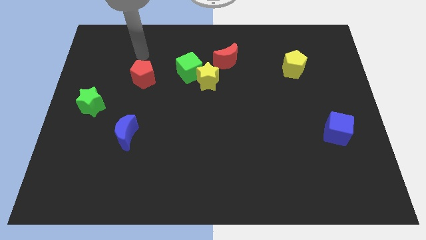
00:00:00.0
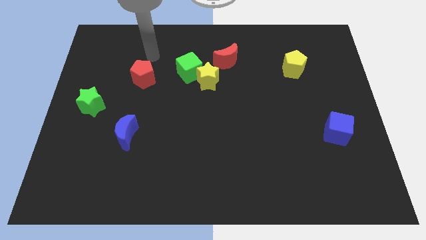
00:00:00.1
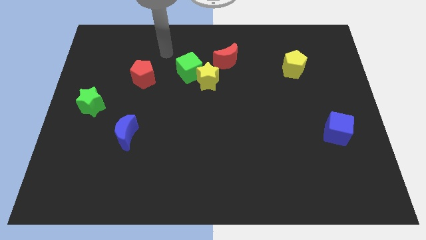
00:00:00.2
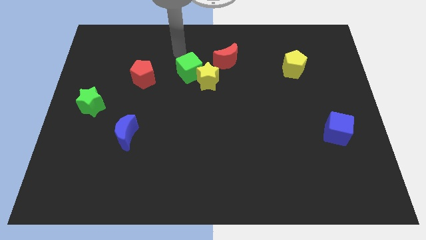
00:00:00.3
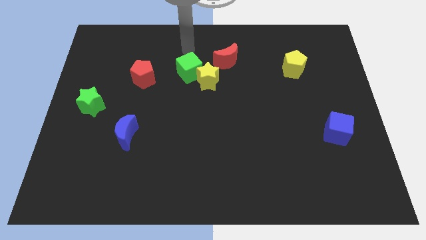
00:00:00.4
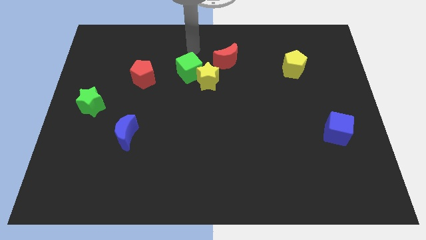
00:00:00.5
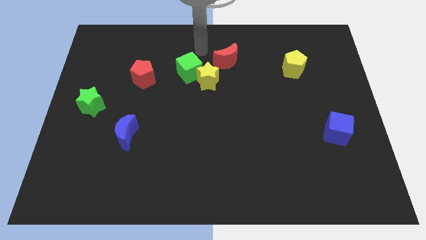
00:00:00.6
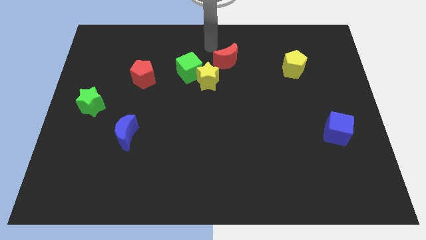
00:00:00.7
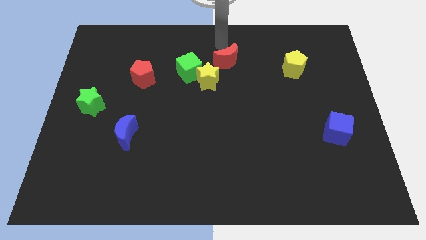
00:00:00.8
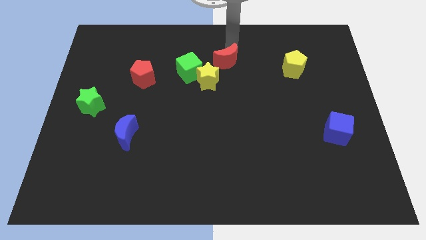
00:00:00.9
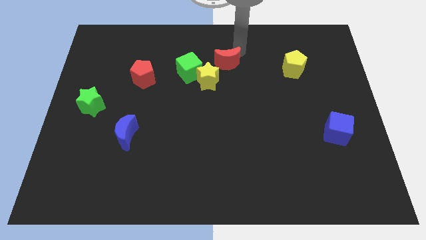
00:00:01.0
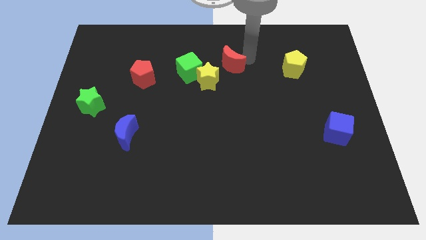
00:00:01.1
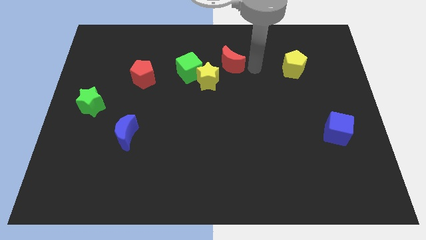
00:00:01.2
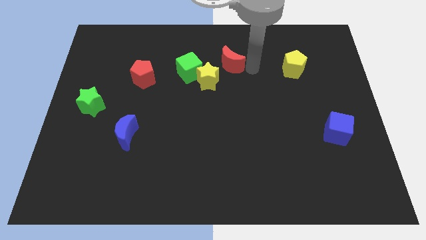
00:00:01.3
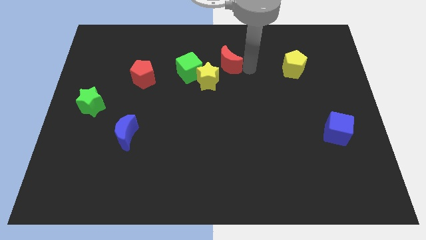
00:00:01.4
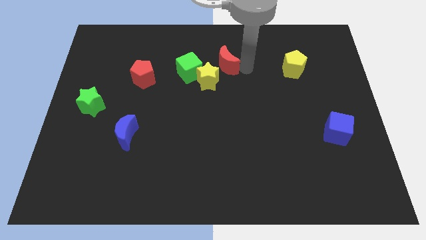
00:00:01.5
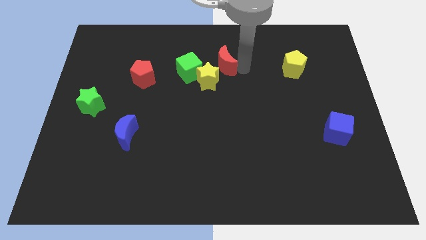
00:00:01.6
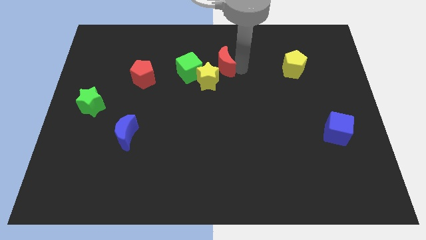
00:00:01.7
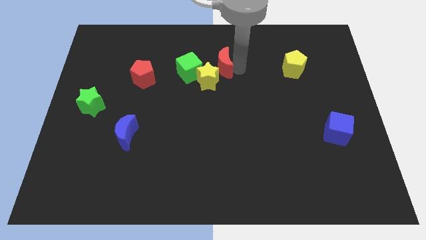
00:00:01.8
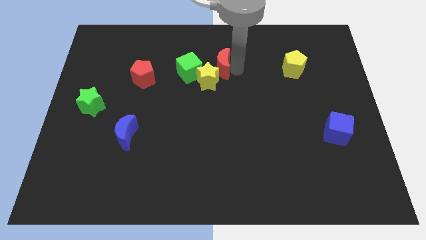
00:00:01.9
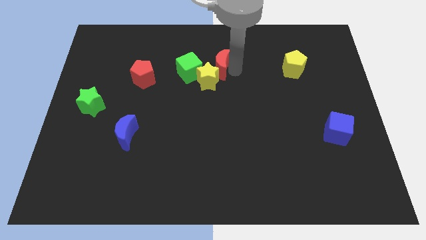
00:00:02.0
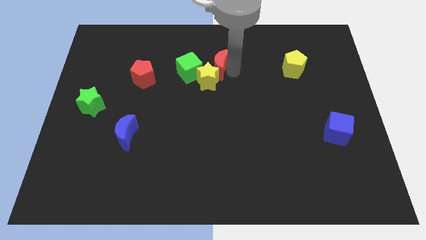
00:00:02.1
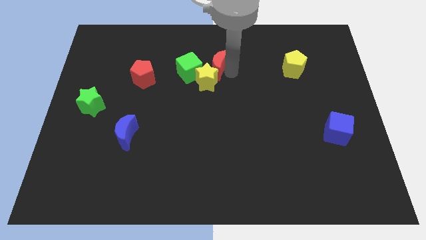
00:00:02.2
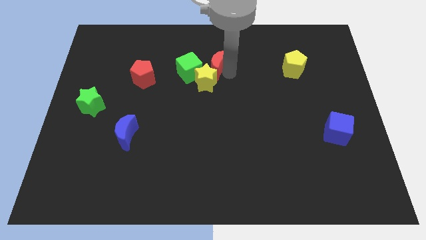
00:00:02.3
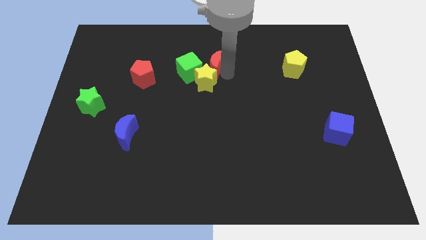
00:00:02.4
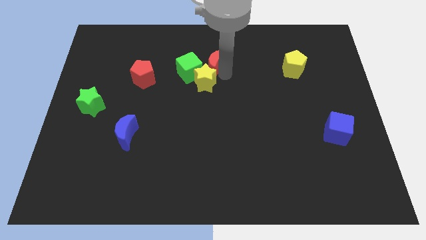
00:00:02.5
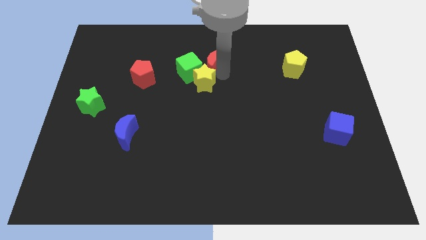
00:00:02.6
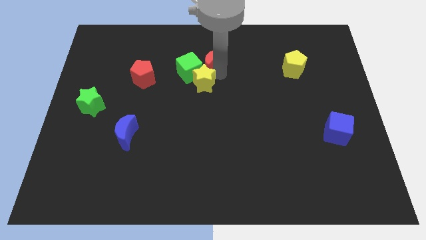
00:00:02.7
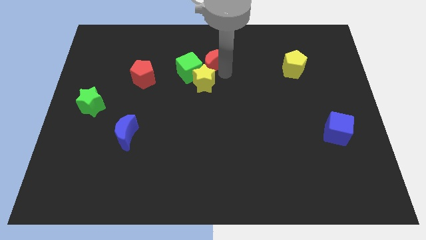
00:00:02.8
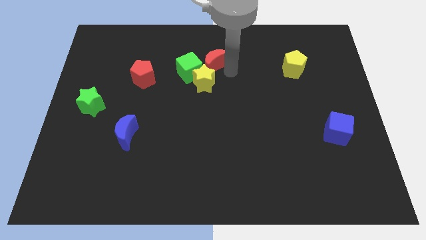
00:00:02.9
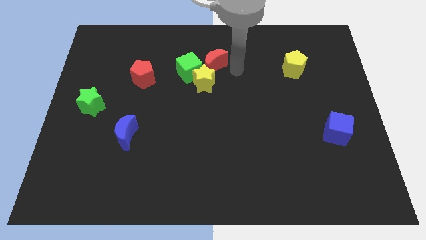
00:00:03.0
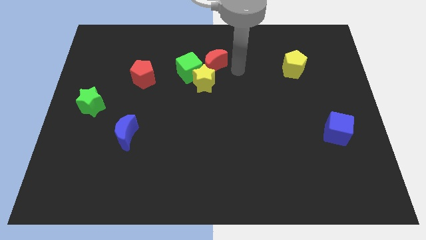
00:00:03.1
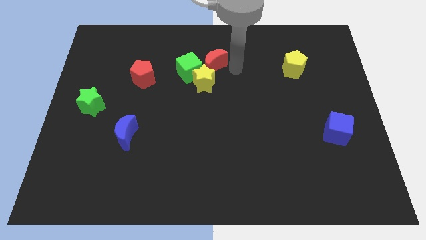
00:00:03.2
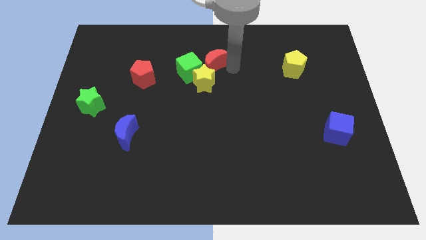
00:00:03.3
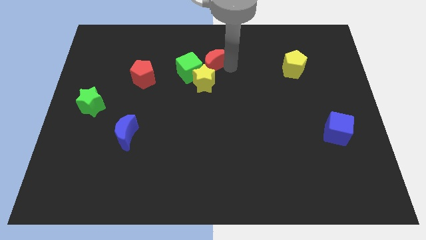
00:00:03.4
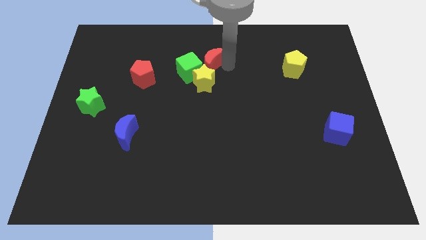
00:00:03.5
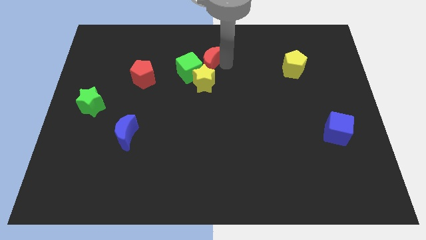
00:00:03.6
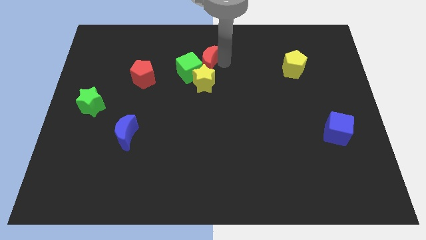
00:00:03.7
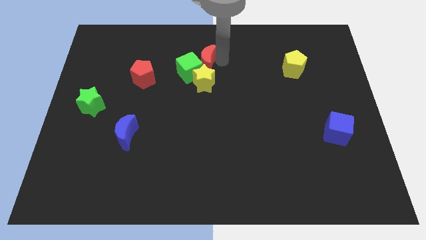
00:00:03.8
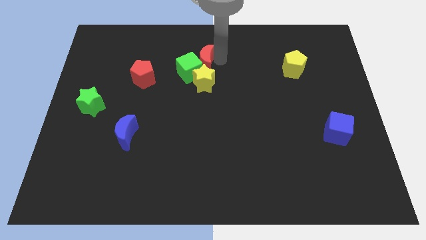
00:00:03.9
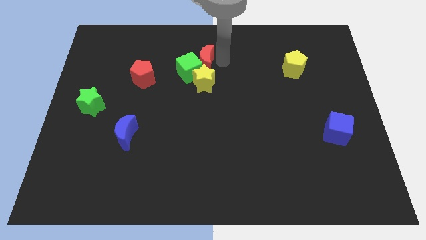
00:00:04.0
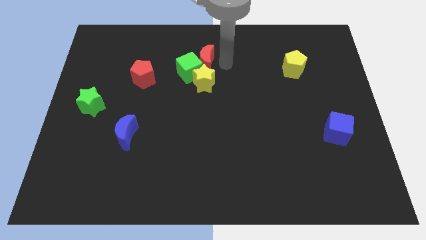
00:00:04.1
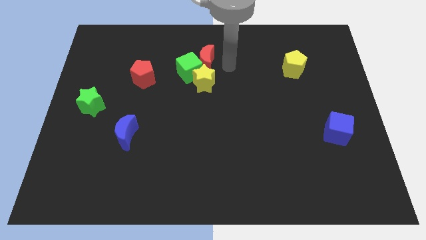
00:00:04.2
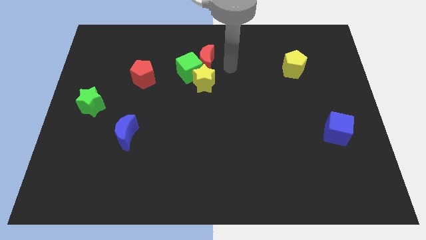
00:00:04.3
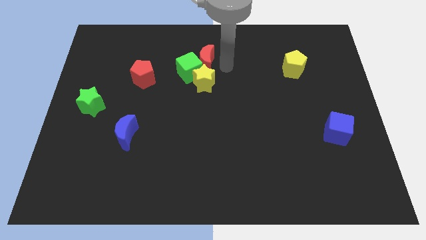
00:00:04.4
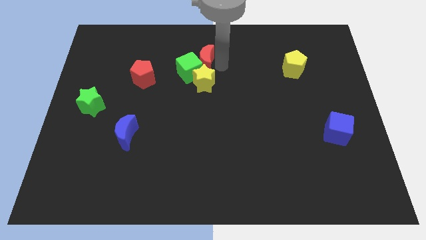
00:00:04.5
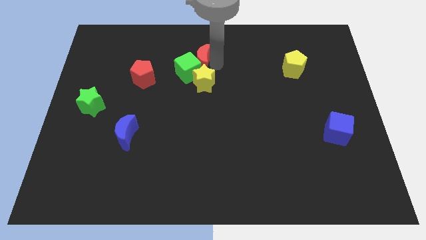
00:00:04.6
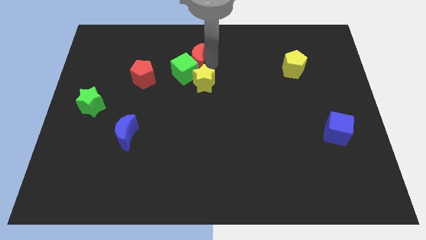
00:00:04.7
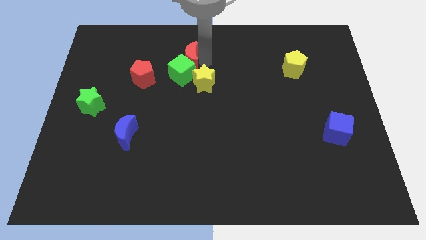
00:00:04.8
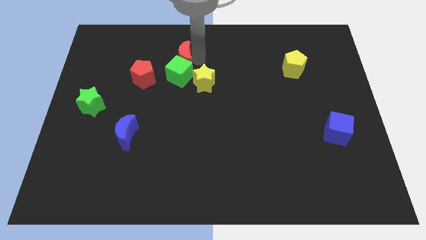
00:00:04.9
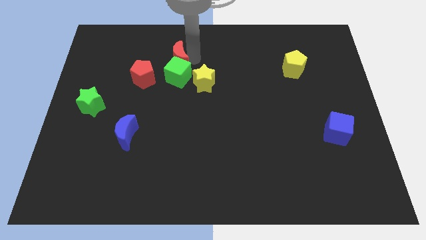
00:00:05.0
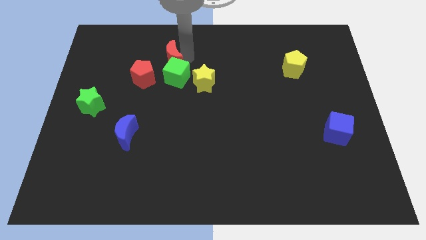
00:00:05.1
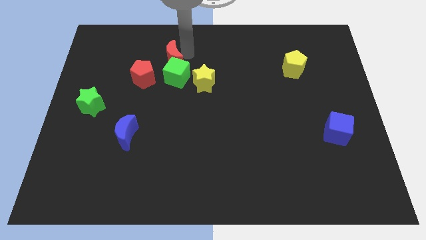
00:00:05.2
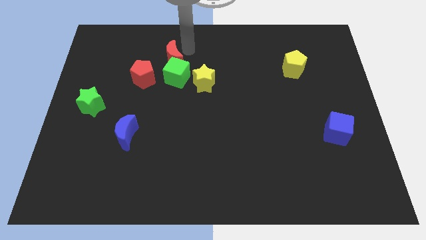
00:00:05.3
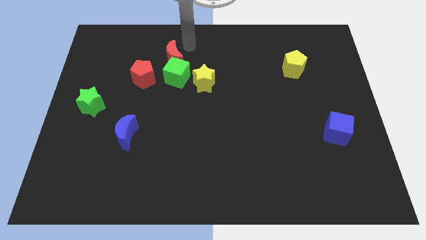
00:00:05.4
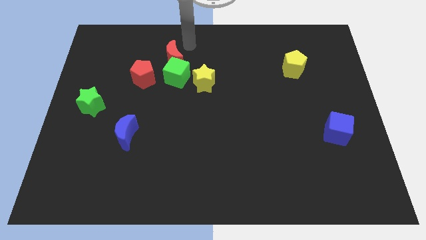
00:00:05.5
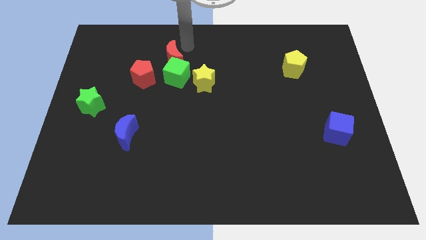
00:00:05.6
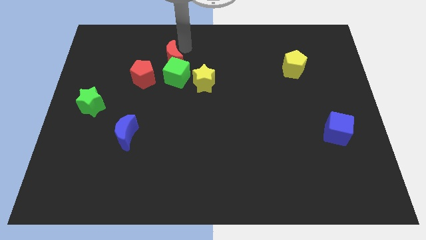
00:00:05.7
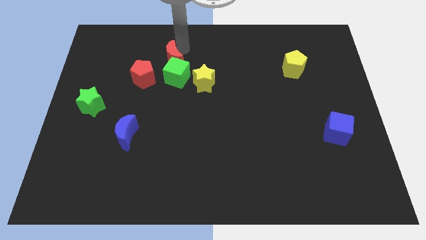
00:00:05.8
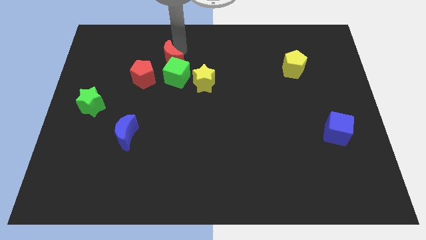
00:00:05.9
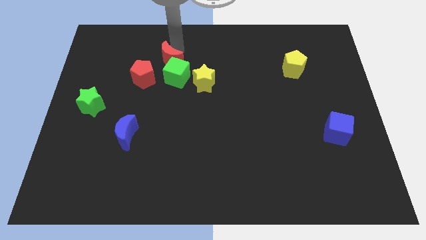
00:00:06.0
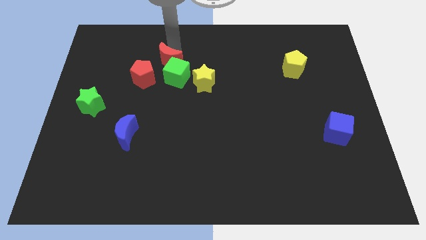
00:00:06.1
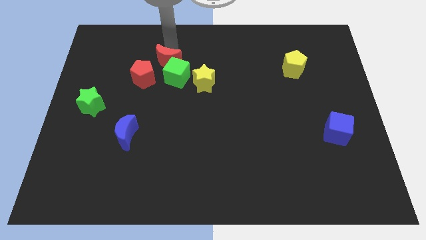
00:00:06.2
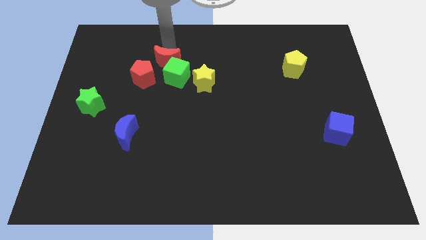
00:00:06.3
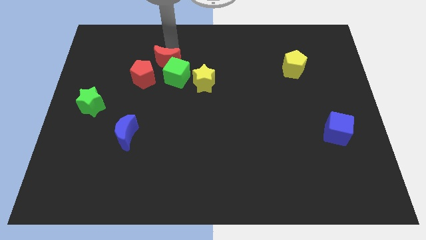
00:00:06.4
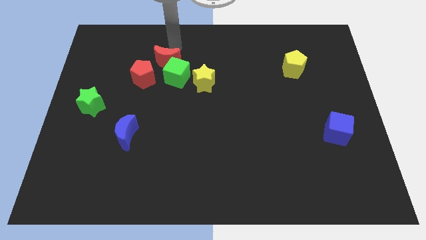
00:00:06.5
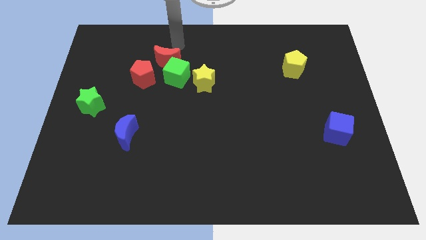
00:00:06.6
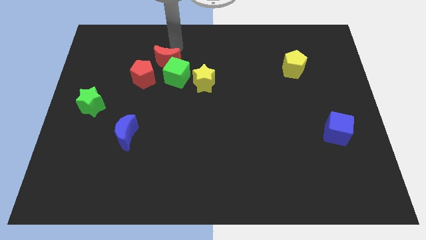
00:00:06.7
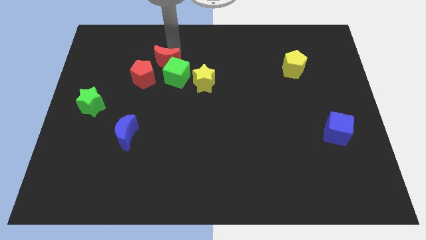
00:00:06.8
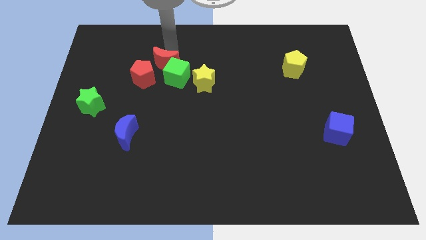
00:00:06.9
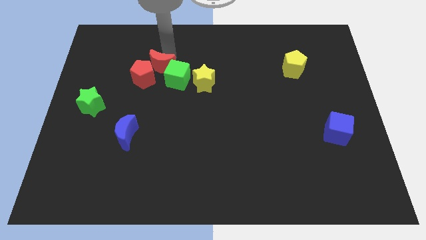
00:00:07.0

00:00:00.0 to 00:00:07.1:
put the red moon next to the red pentagon

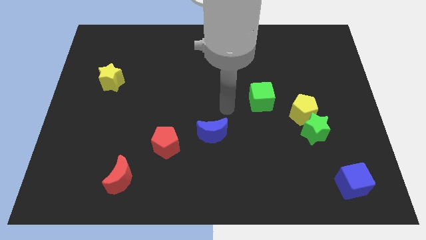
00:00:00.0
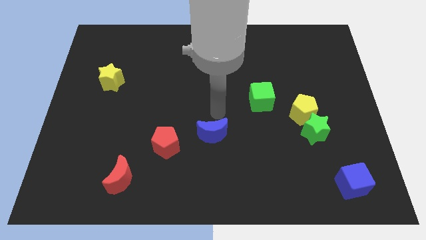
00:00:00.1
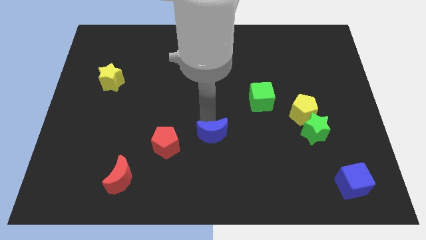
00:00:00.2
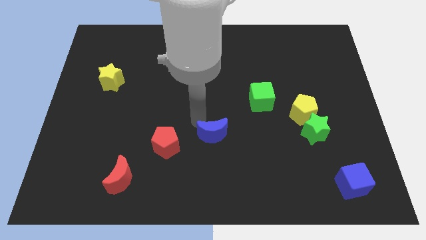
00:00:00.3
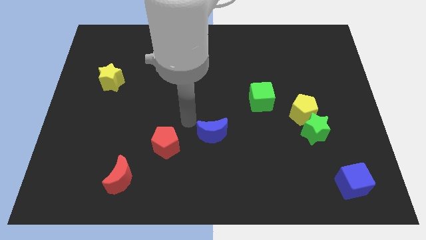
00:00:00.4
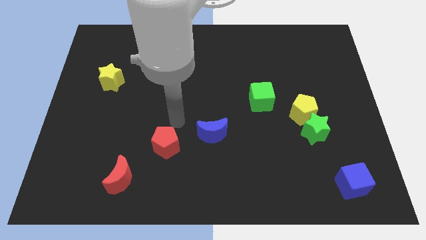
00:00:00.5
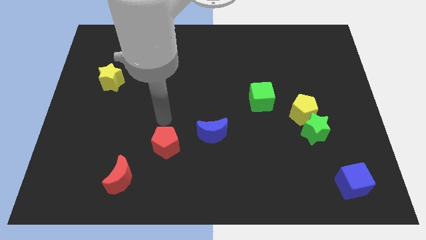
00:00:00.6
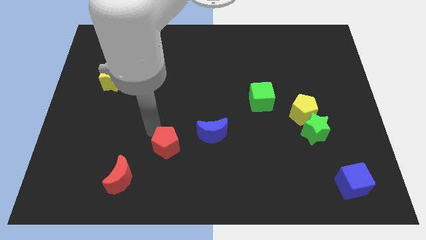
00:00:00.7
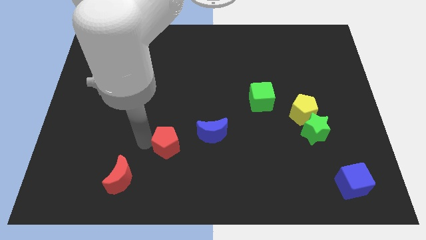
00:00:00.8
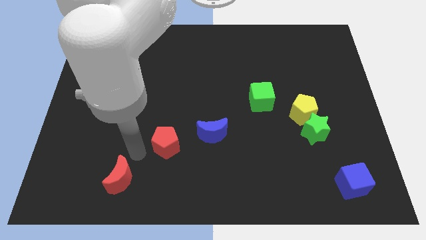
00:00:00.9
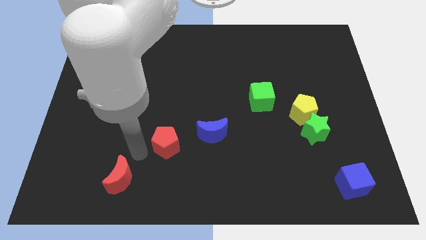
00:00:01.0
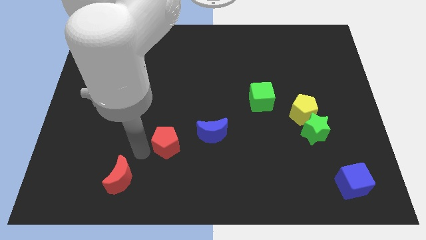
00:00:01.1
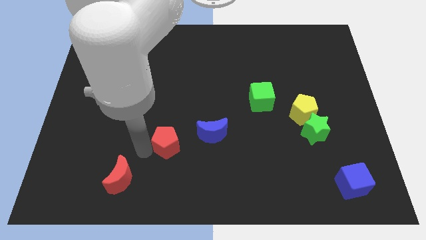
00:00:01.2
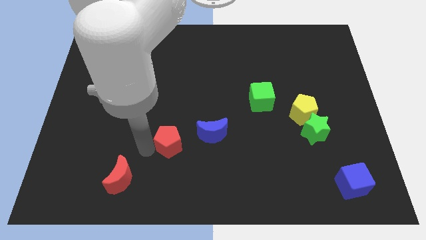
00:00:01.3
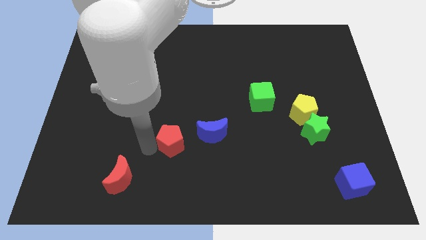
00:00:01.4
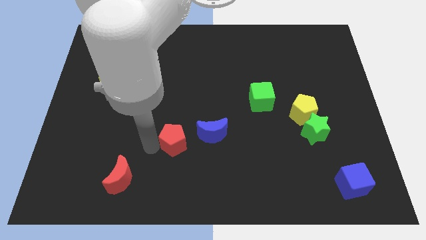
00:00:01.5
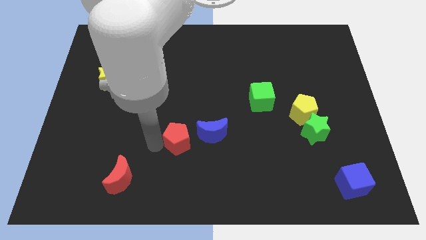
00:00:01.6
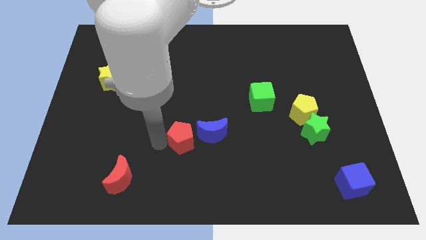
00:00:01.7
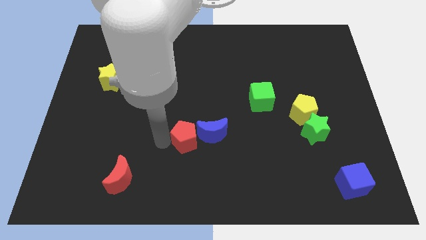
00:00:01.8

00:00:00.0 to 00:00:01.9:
push the red pentagon to the blue moon
